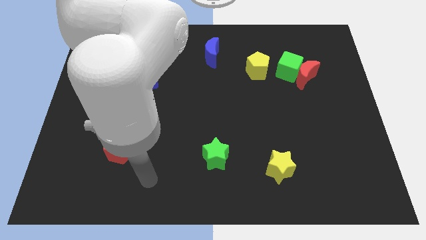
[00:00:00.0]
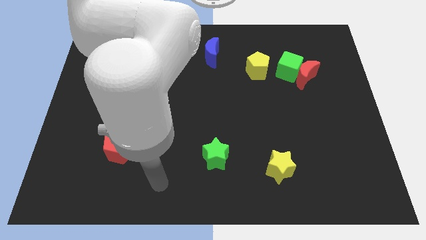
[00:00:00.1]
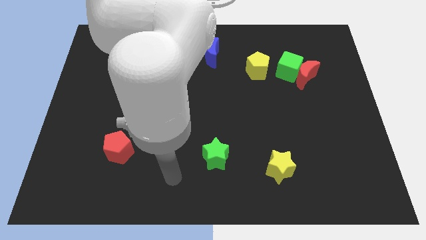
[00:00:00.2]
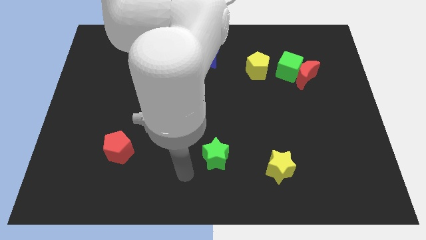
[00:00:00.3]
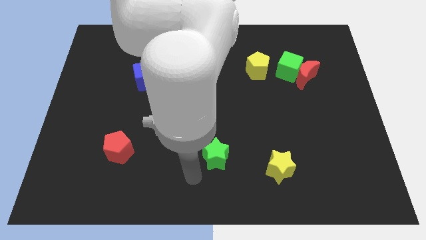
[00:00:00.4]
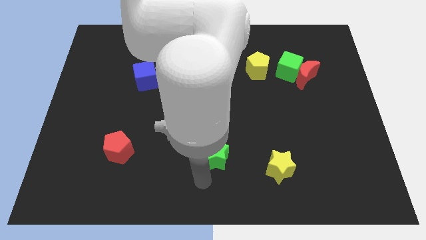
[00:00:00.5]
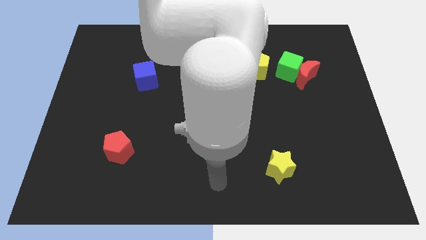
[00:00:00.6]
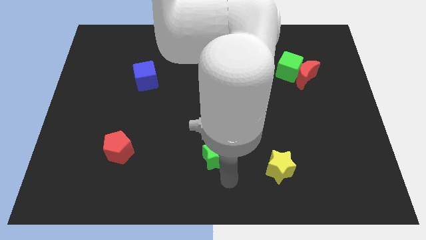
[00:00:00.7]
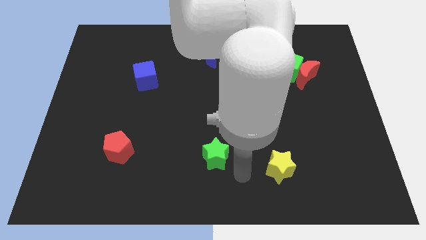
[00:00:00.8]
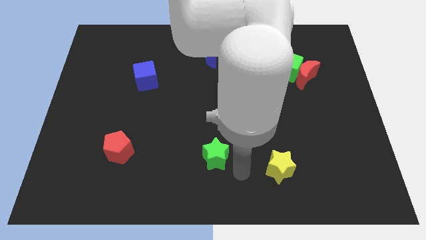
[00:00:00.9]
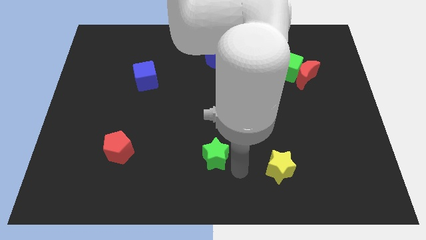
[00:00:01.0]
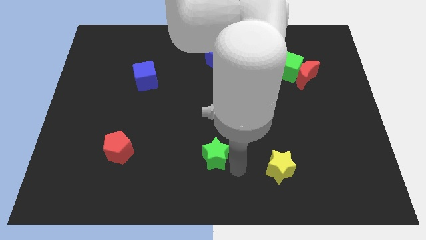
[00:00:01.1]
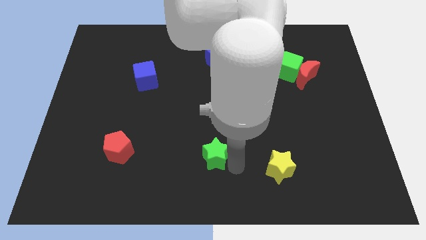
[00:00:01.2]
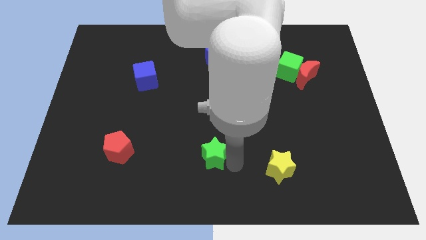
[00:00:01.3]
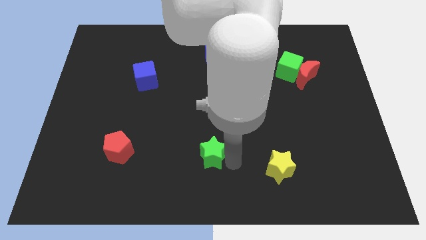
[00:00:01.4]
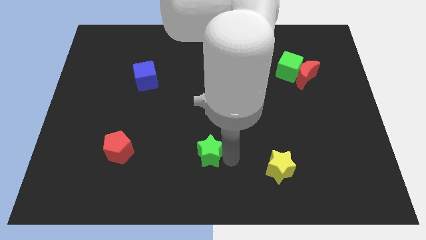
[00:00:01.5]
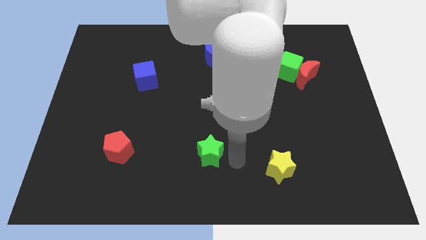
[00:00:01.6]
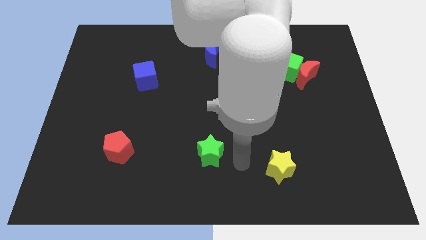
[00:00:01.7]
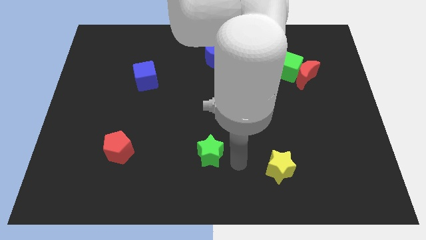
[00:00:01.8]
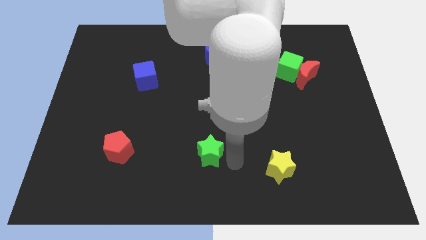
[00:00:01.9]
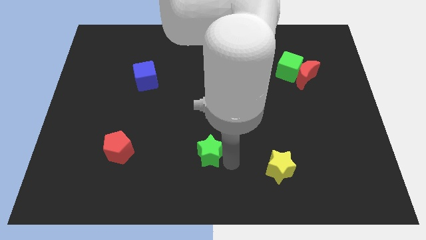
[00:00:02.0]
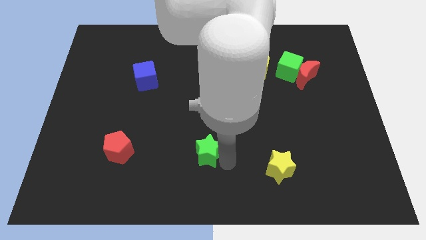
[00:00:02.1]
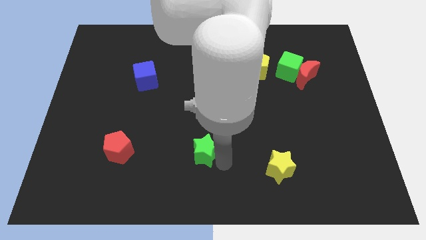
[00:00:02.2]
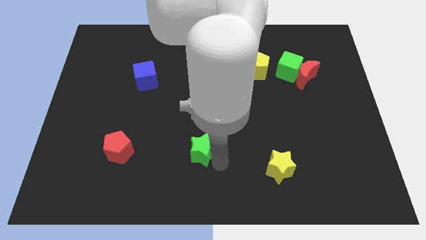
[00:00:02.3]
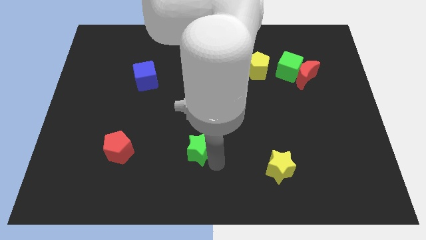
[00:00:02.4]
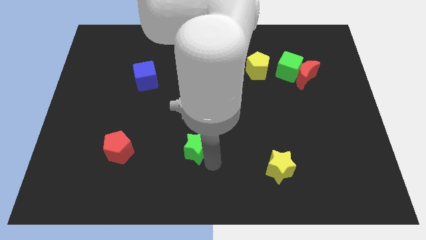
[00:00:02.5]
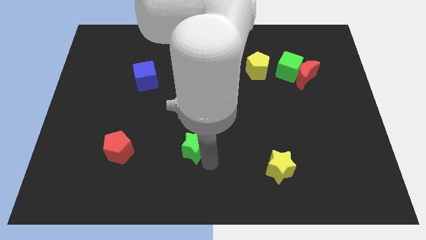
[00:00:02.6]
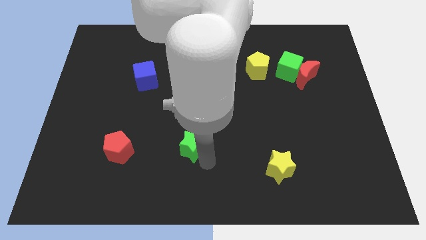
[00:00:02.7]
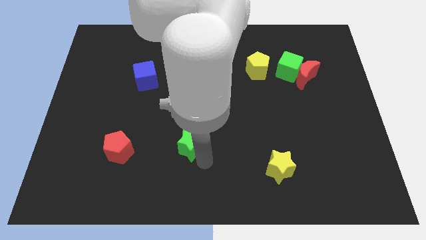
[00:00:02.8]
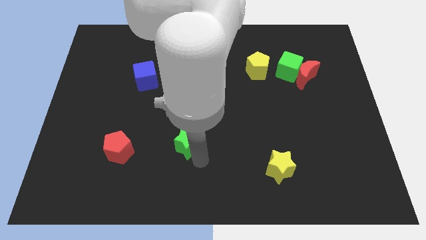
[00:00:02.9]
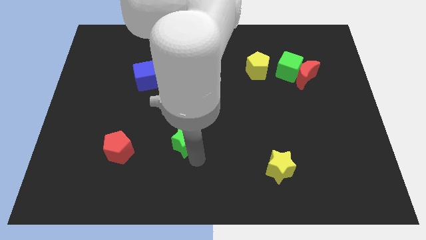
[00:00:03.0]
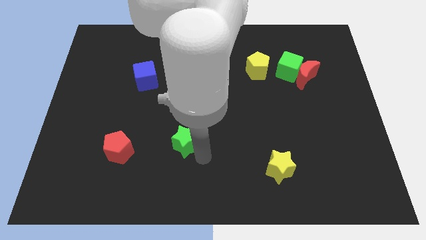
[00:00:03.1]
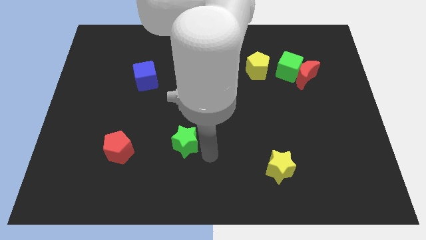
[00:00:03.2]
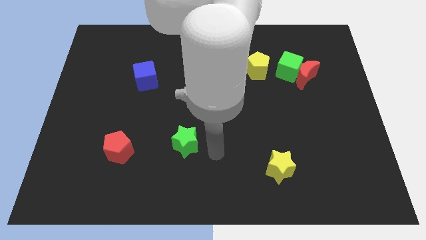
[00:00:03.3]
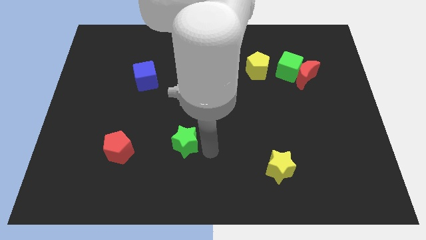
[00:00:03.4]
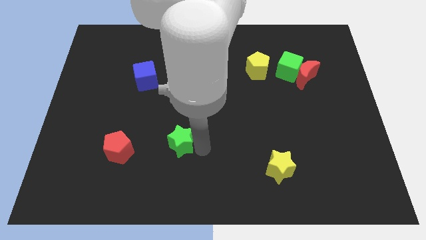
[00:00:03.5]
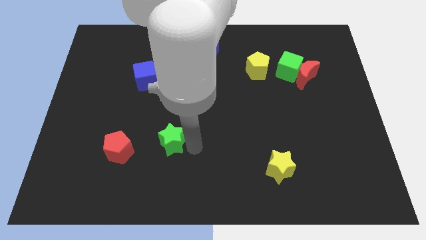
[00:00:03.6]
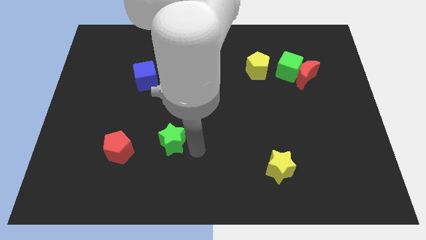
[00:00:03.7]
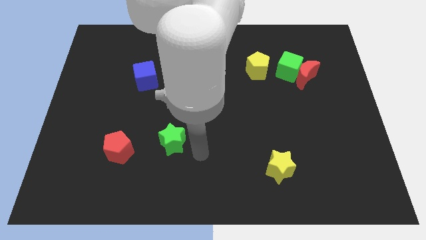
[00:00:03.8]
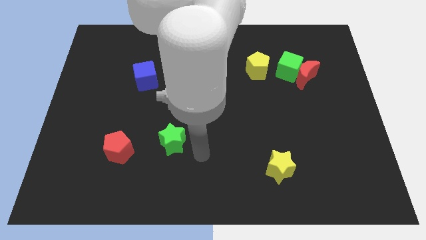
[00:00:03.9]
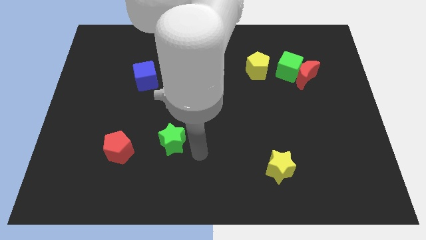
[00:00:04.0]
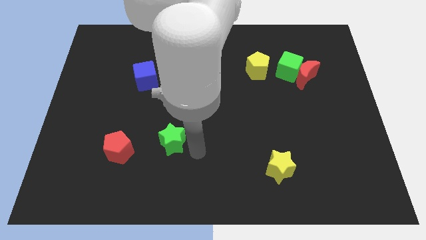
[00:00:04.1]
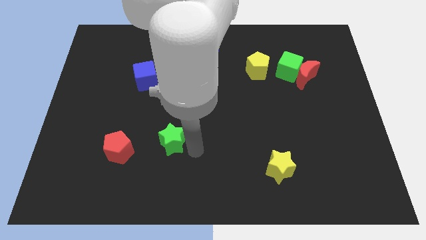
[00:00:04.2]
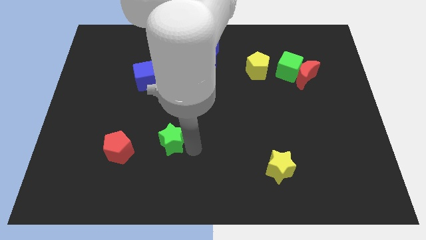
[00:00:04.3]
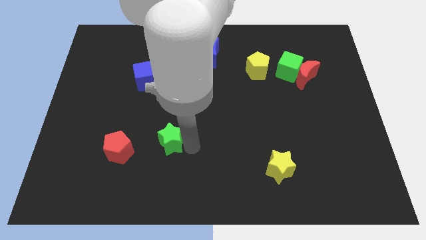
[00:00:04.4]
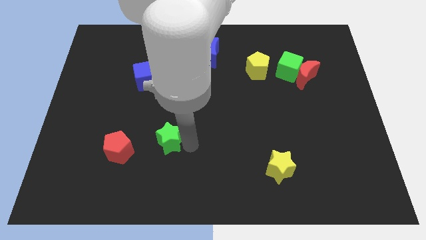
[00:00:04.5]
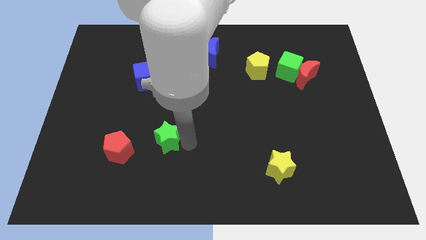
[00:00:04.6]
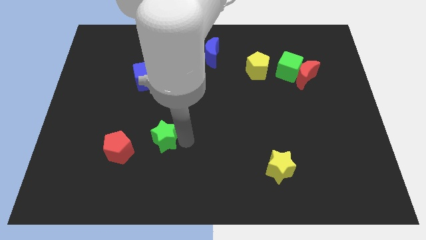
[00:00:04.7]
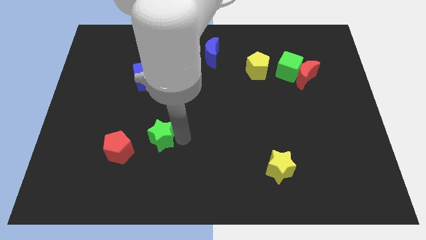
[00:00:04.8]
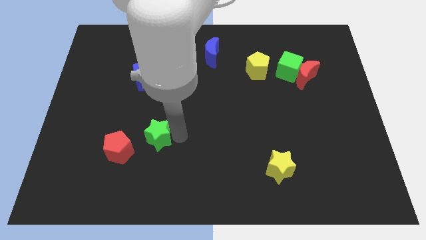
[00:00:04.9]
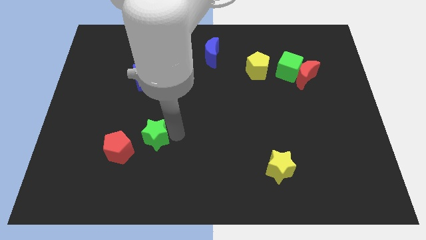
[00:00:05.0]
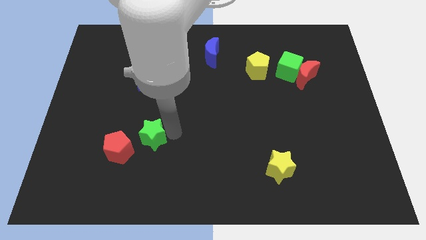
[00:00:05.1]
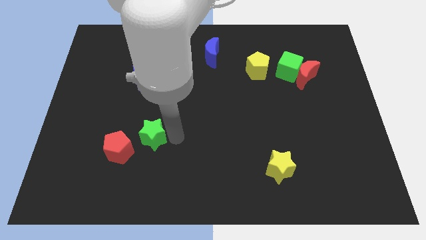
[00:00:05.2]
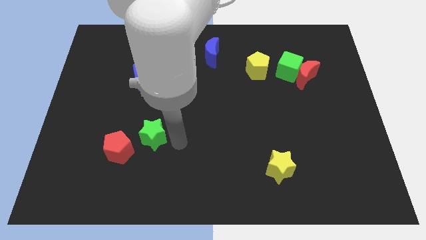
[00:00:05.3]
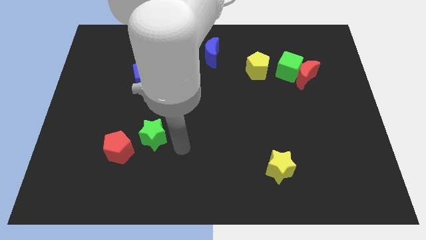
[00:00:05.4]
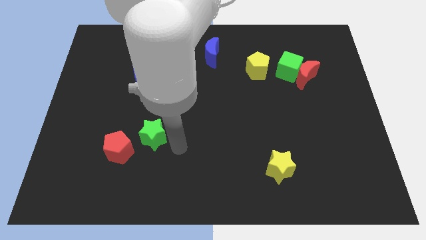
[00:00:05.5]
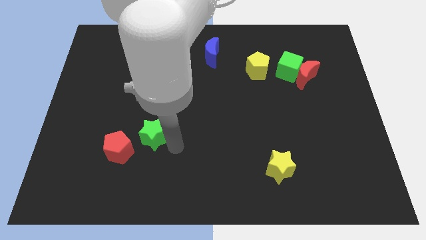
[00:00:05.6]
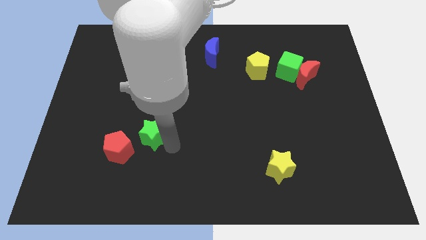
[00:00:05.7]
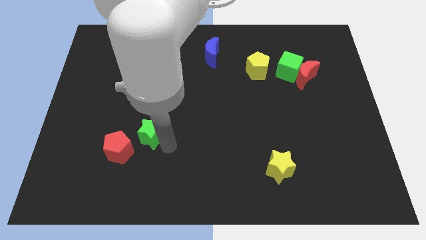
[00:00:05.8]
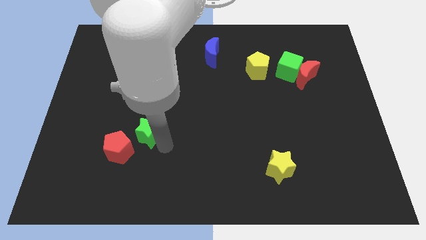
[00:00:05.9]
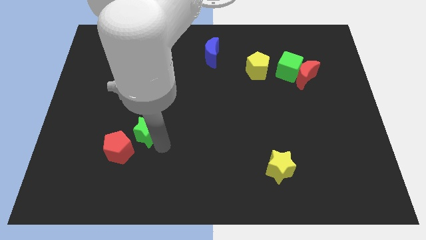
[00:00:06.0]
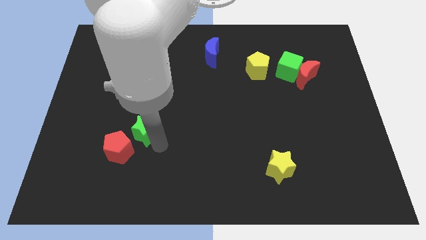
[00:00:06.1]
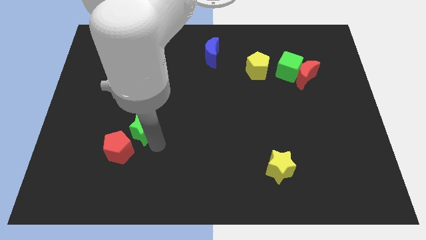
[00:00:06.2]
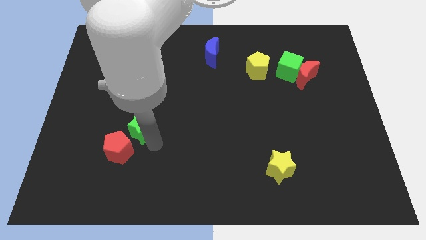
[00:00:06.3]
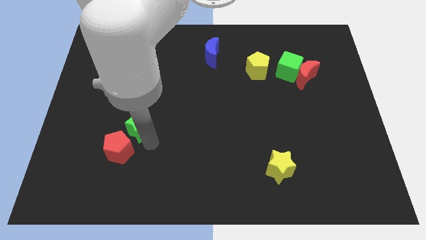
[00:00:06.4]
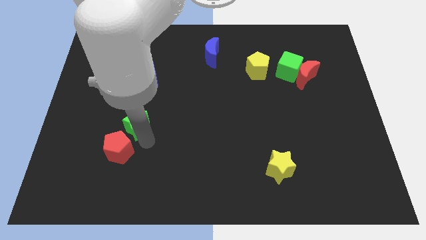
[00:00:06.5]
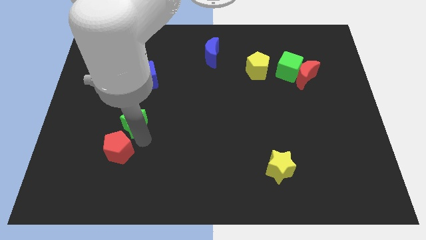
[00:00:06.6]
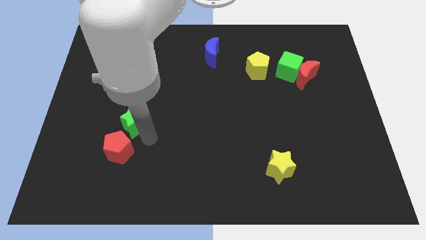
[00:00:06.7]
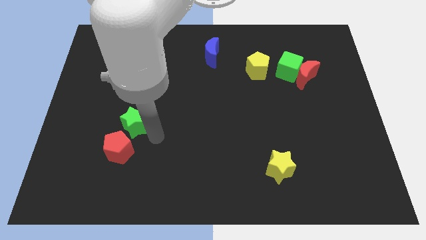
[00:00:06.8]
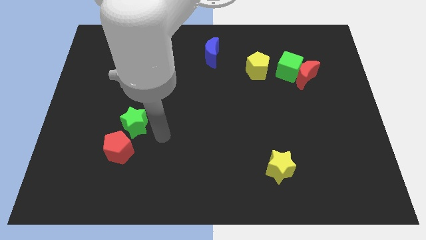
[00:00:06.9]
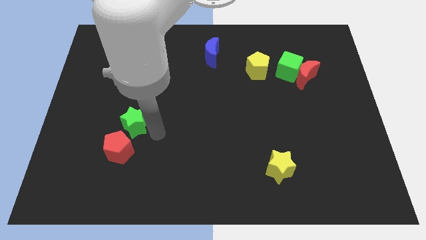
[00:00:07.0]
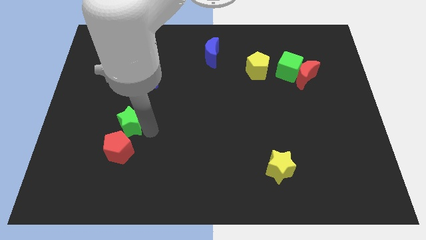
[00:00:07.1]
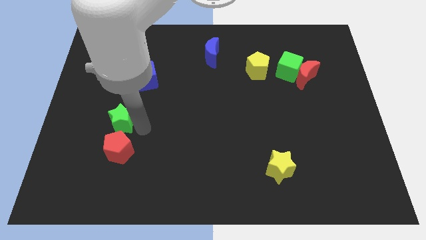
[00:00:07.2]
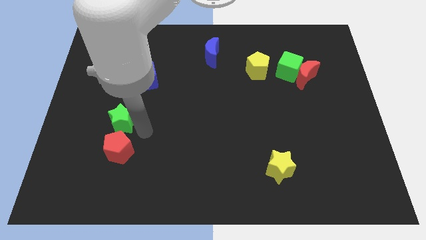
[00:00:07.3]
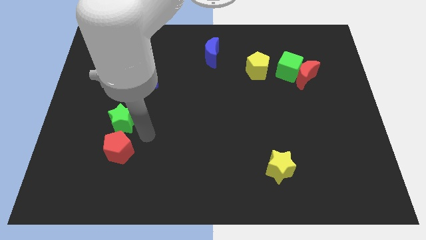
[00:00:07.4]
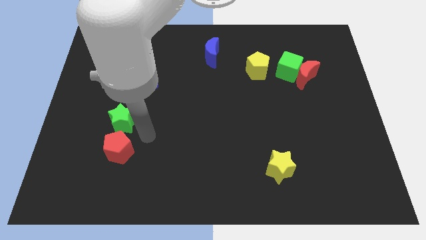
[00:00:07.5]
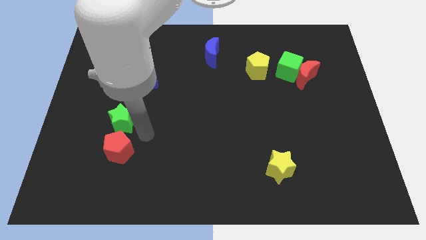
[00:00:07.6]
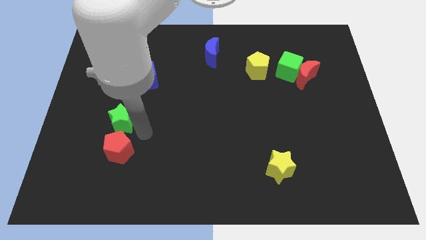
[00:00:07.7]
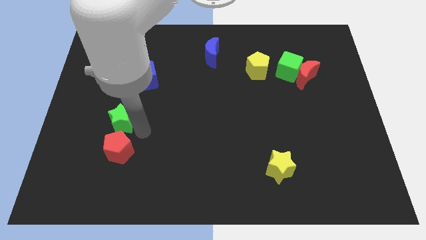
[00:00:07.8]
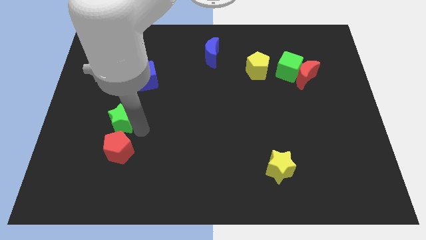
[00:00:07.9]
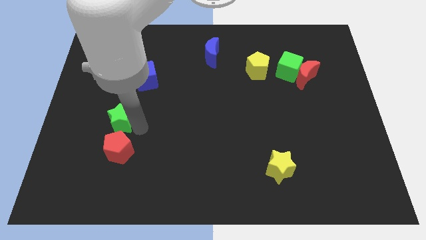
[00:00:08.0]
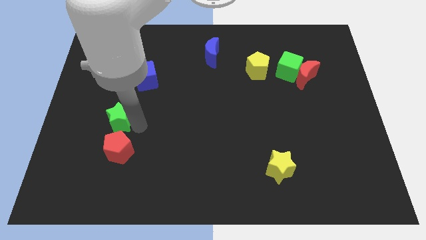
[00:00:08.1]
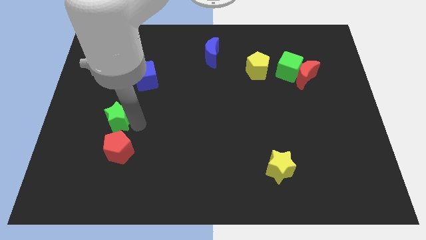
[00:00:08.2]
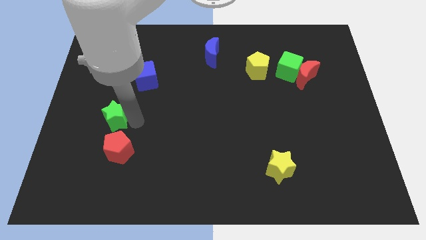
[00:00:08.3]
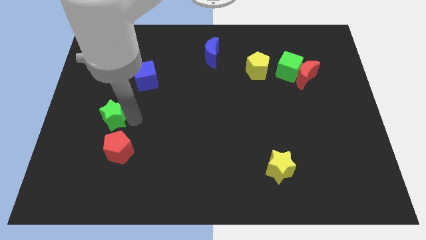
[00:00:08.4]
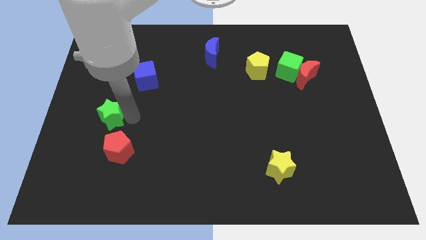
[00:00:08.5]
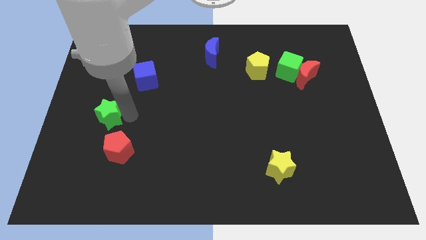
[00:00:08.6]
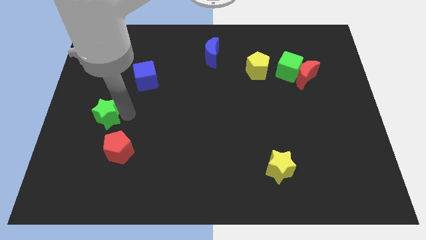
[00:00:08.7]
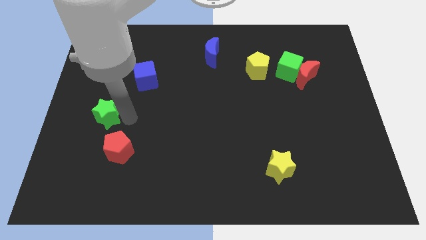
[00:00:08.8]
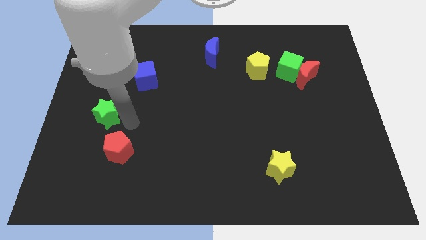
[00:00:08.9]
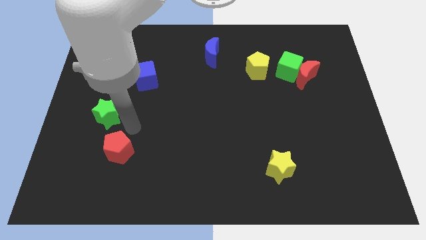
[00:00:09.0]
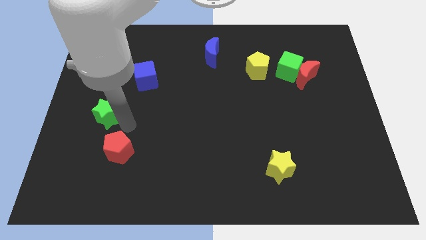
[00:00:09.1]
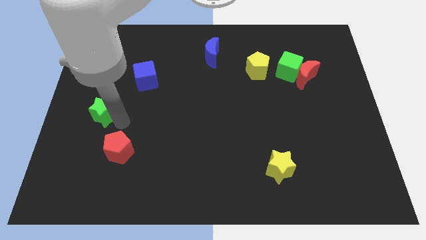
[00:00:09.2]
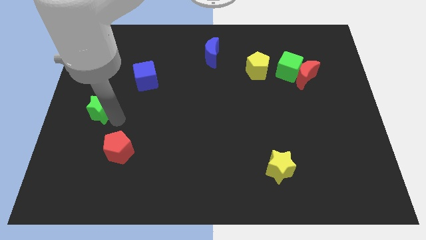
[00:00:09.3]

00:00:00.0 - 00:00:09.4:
push the green star to the center left
